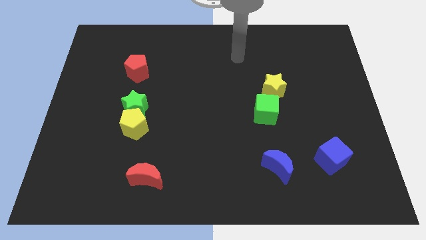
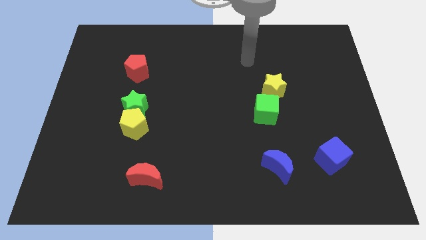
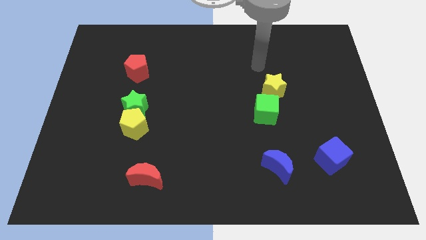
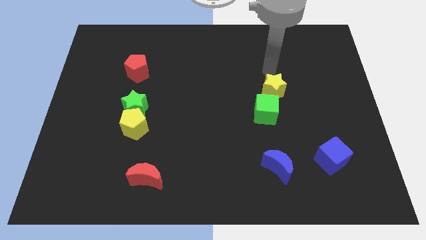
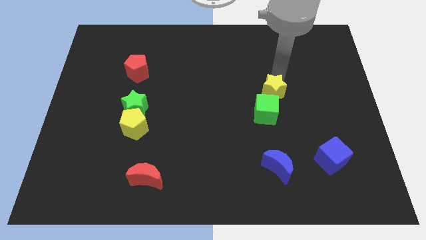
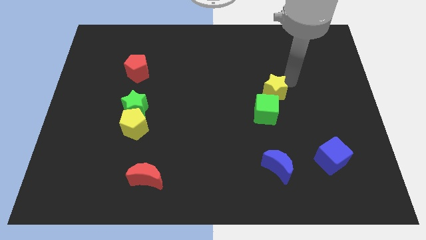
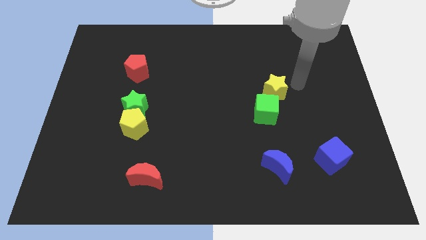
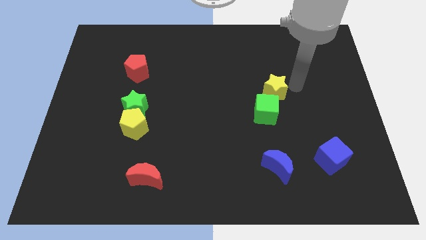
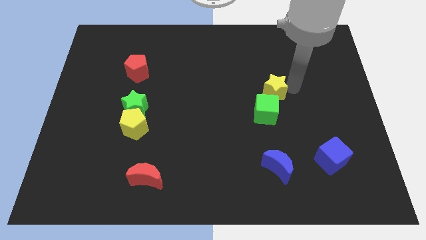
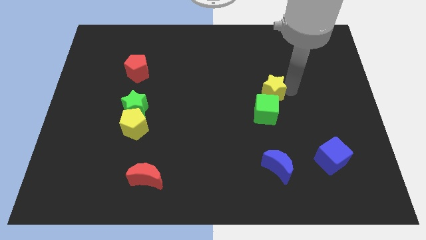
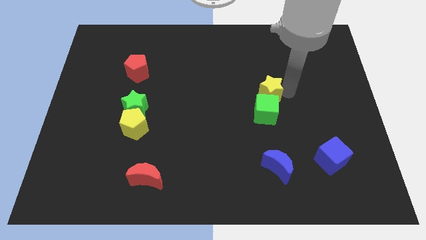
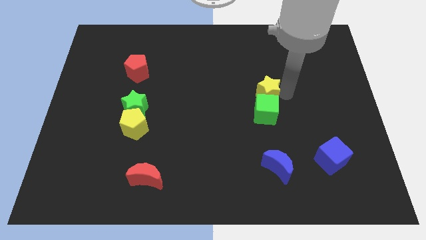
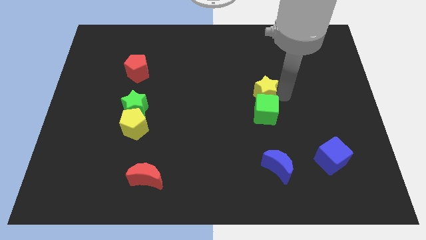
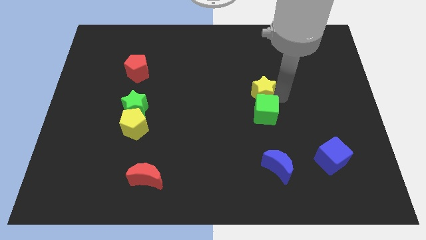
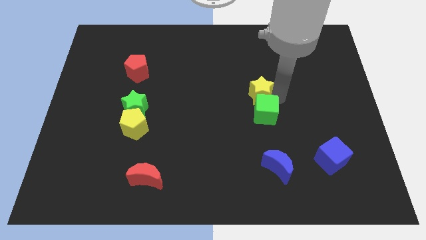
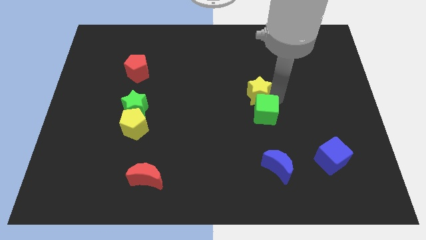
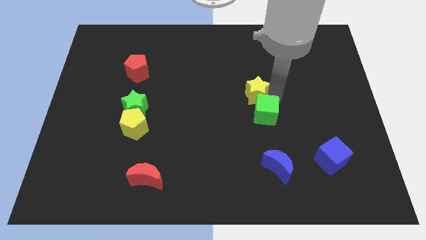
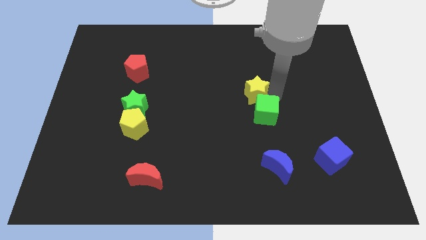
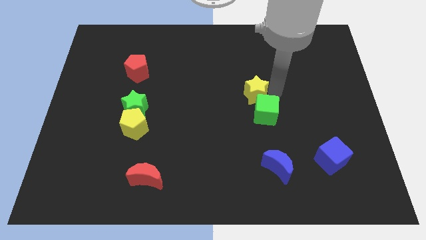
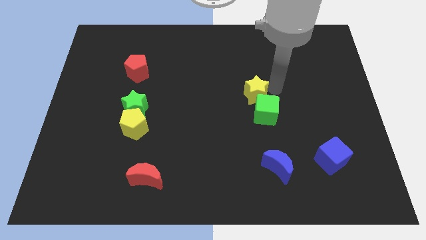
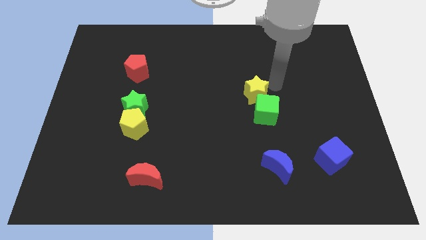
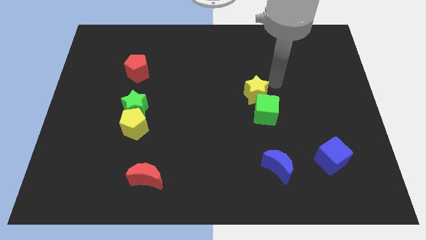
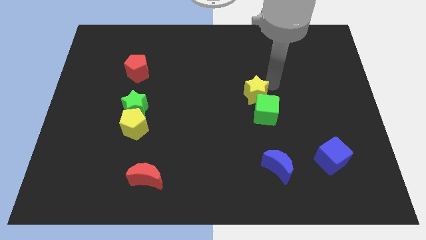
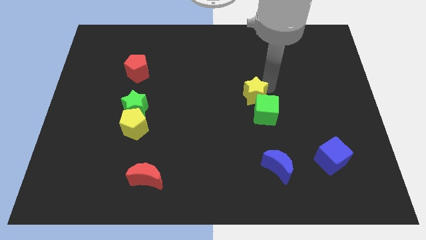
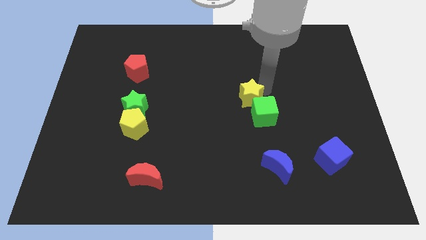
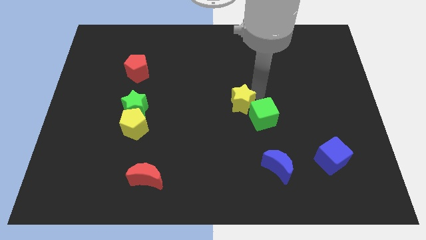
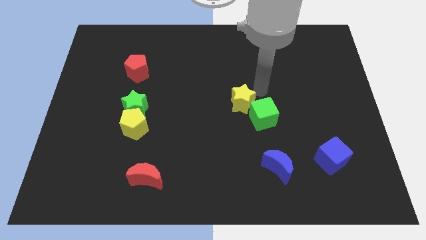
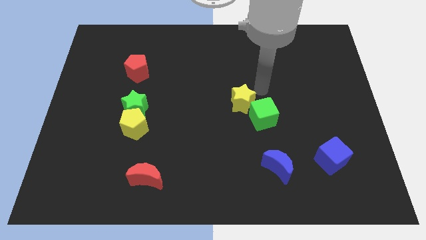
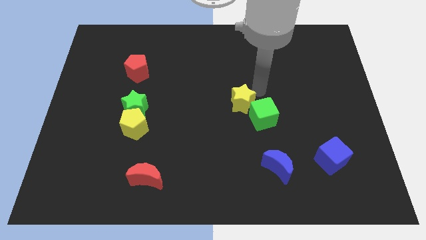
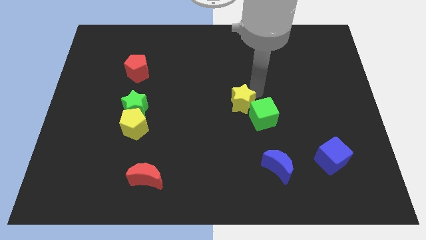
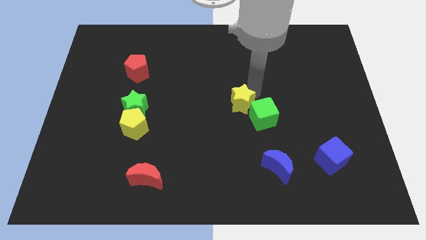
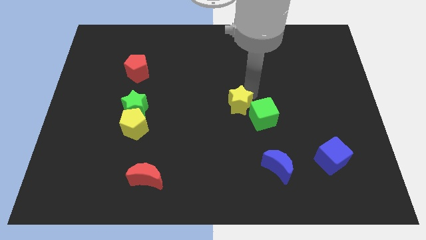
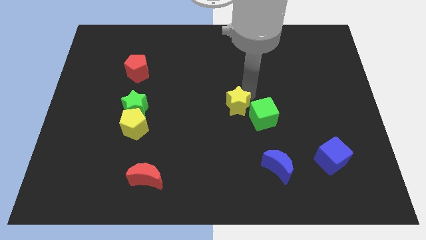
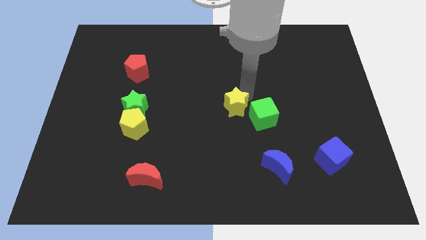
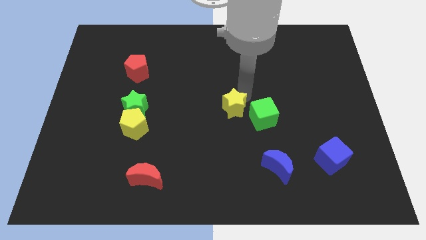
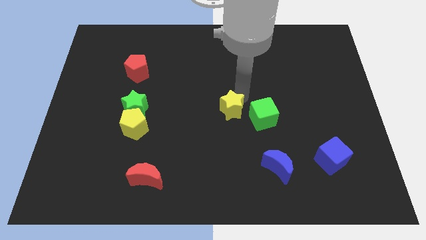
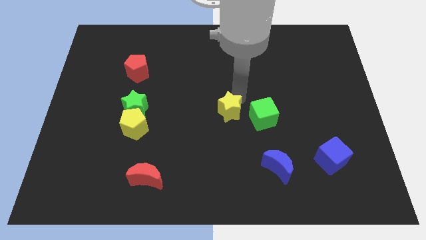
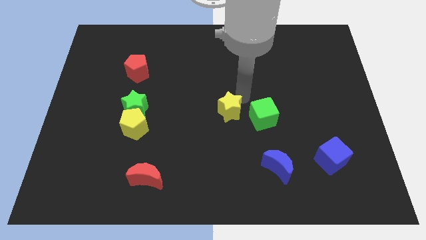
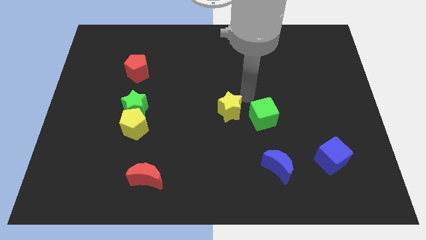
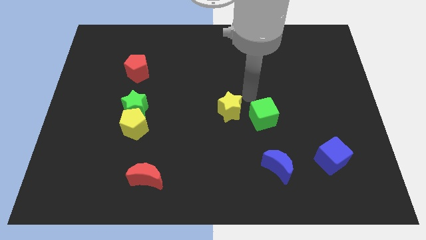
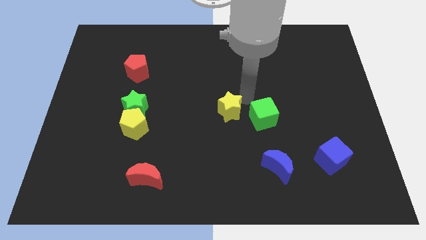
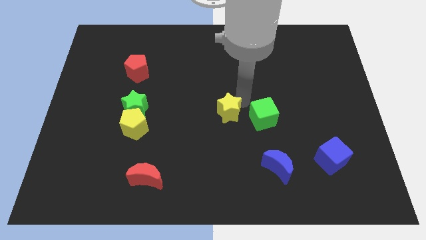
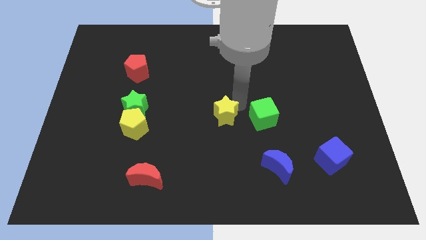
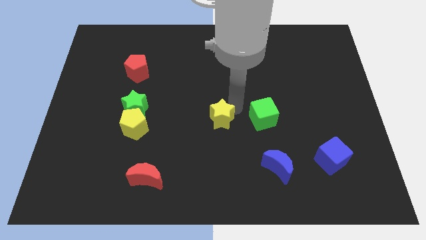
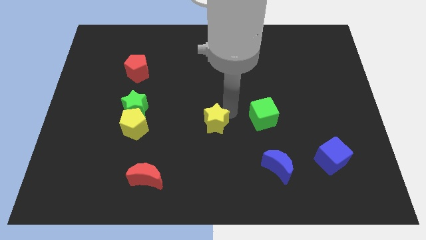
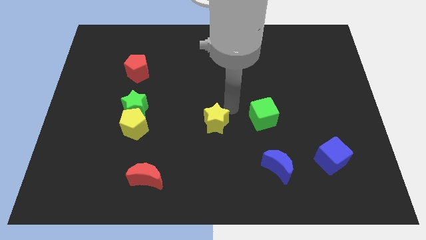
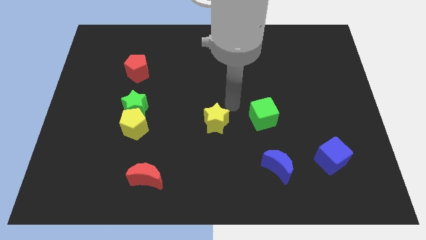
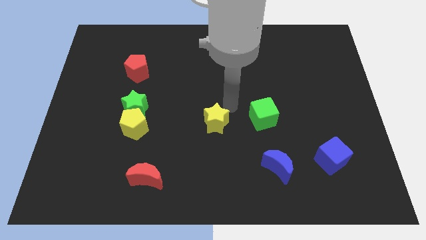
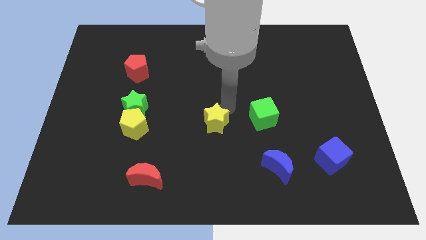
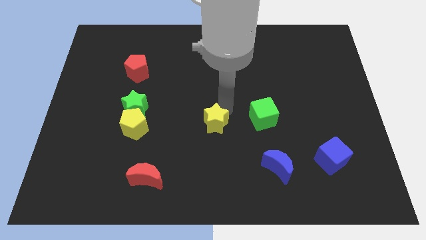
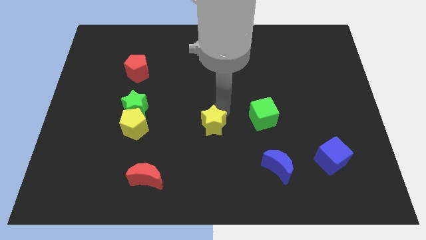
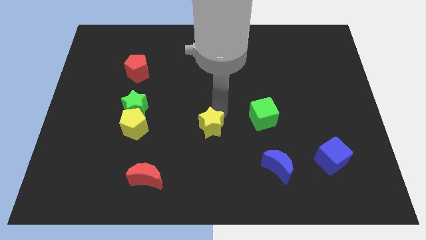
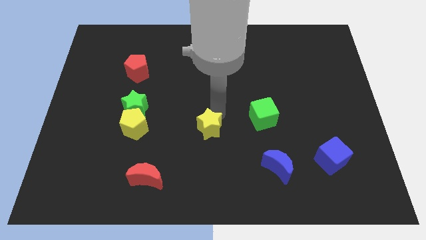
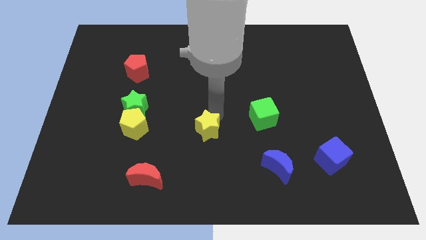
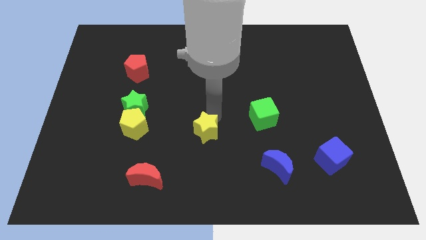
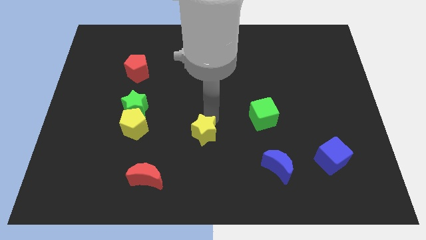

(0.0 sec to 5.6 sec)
push the yellow star diagonally down and left

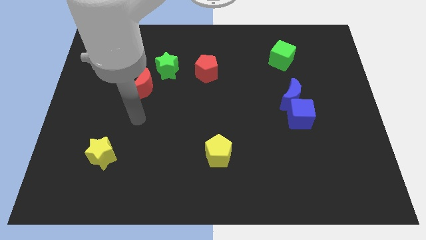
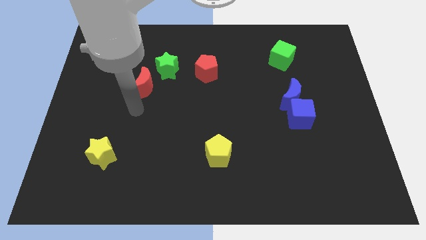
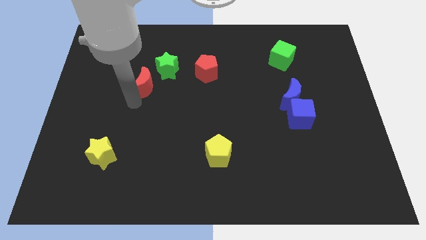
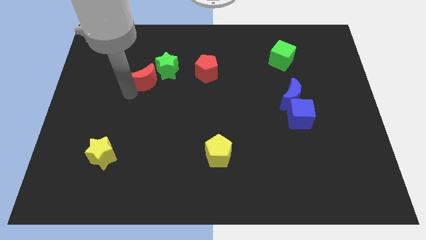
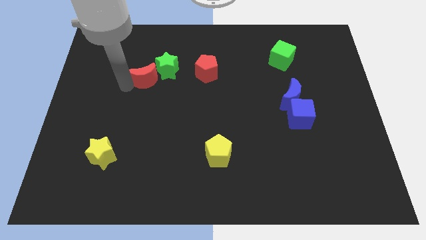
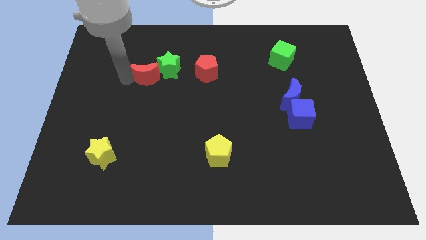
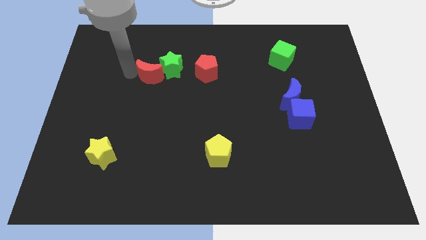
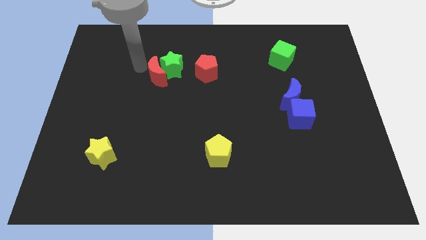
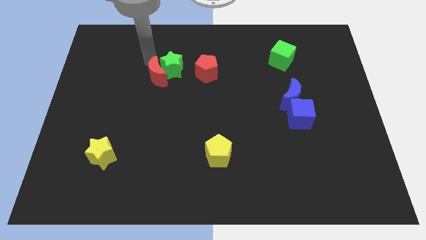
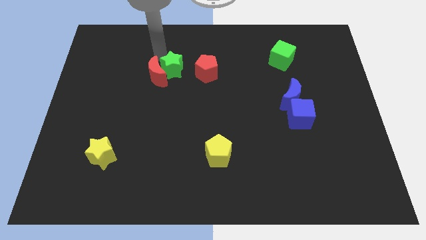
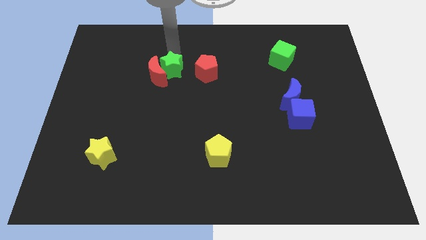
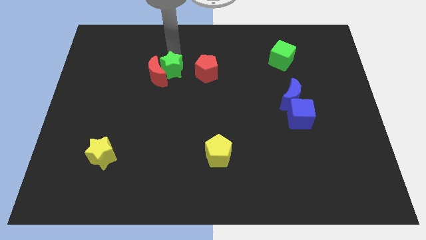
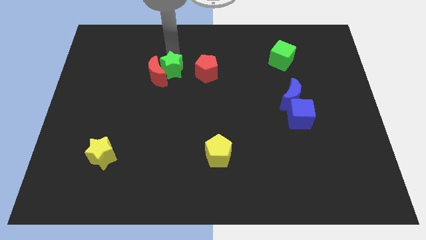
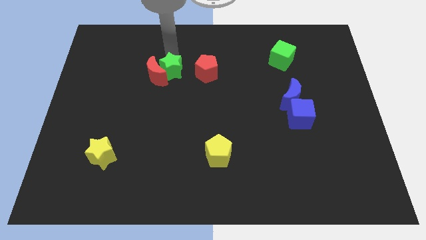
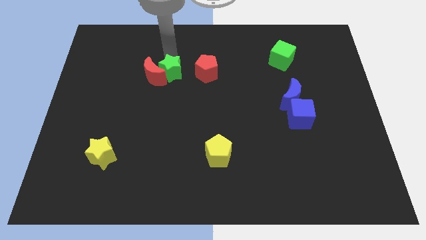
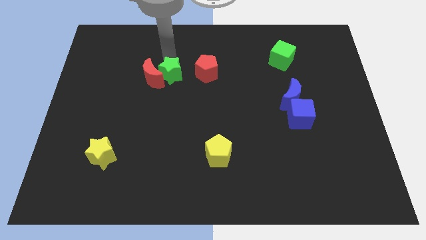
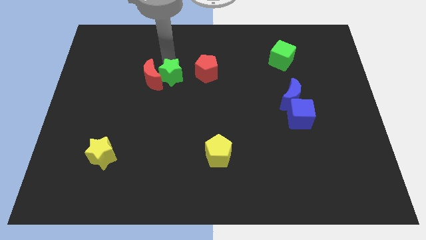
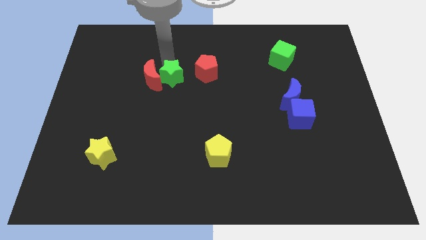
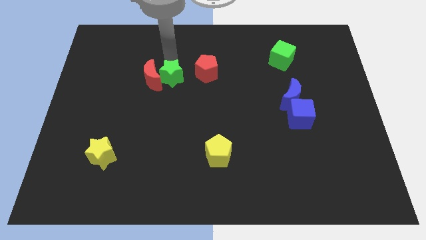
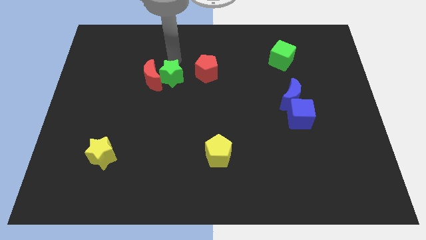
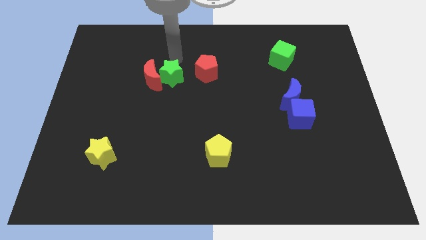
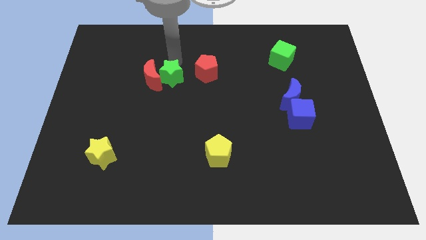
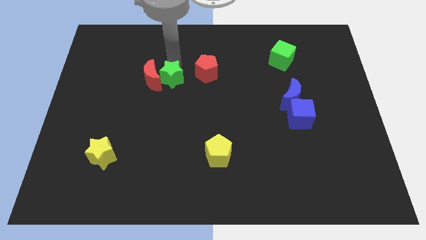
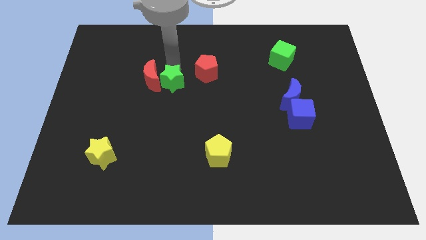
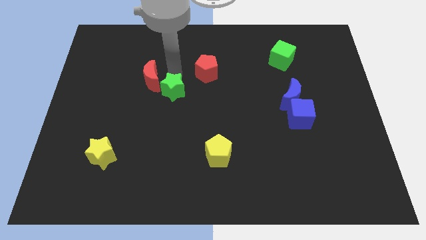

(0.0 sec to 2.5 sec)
slide the green star somewhat downwards
